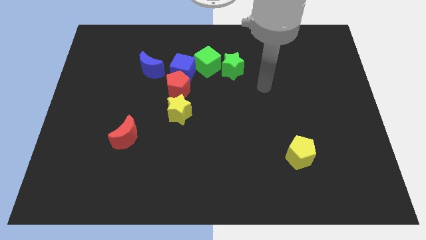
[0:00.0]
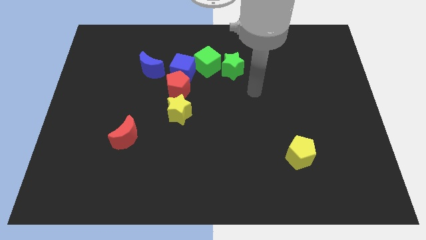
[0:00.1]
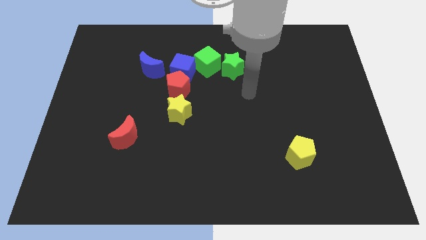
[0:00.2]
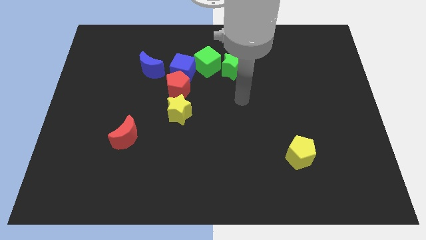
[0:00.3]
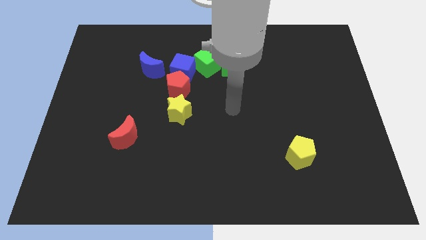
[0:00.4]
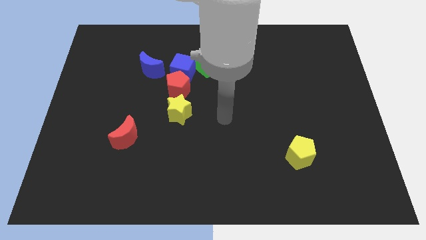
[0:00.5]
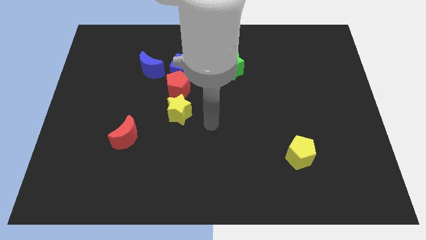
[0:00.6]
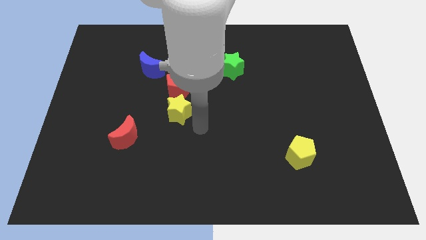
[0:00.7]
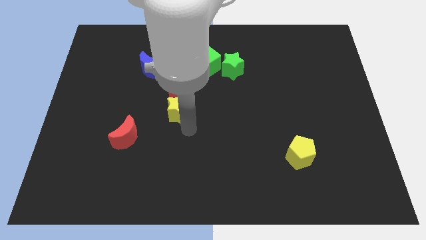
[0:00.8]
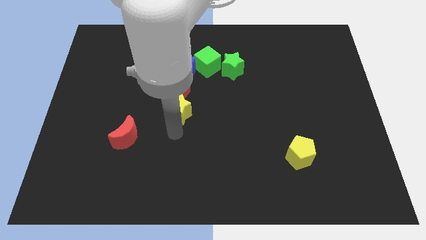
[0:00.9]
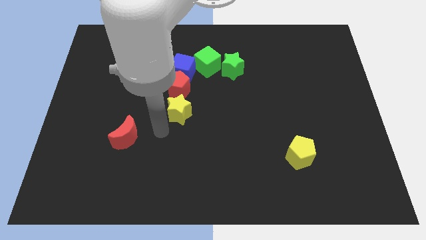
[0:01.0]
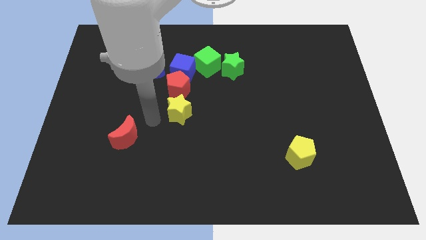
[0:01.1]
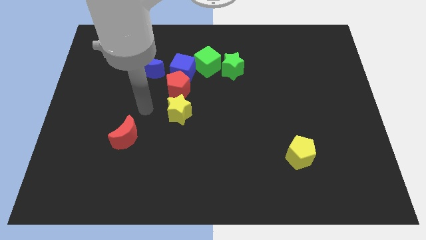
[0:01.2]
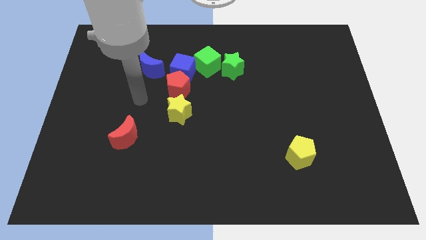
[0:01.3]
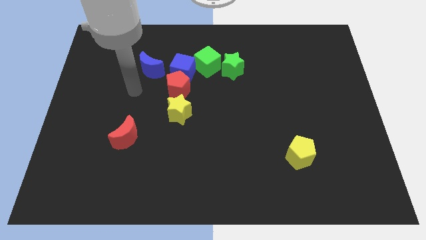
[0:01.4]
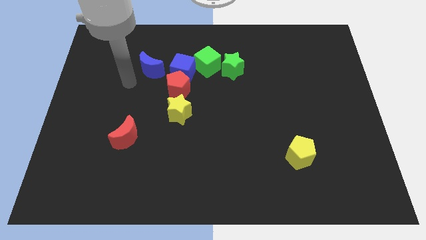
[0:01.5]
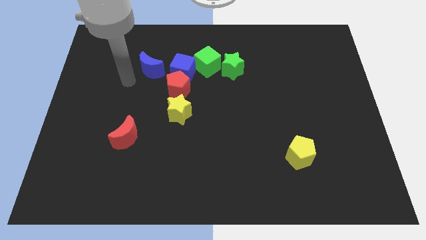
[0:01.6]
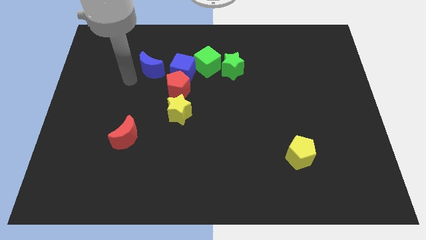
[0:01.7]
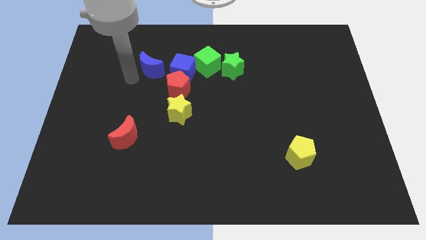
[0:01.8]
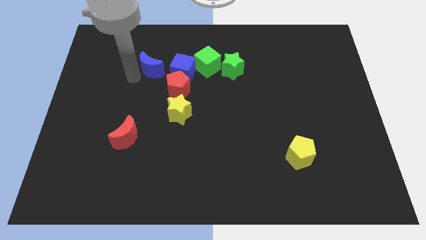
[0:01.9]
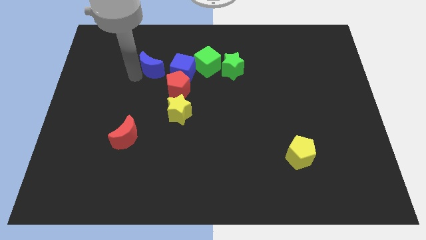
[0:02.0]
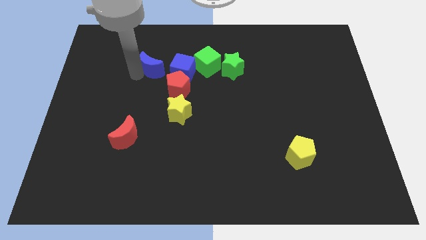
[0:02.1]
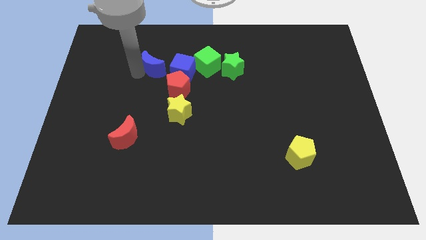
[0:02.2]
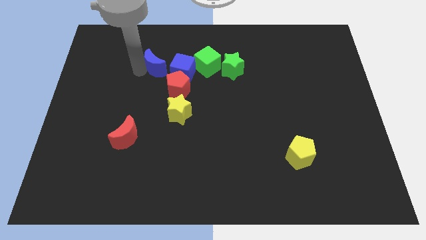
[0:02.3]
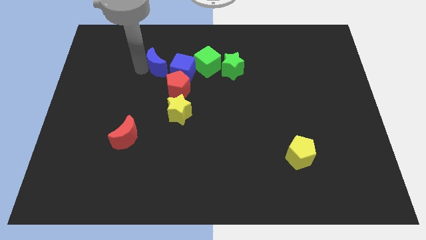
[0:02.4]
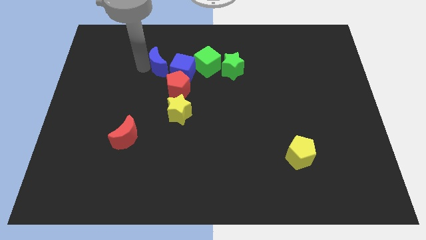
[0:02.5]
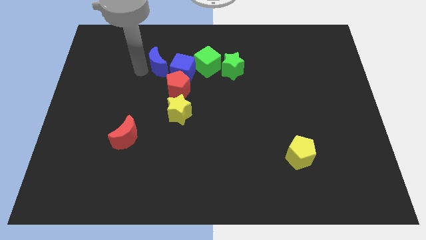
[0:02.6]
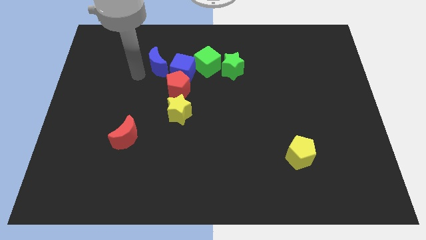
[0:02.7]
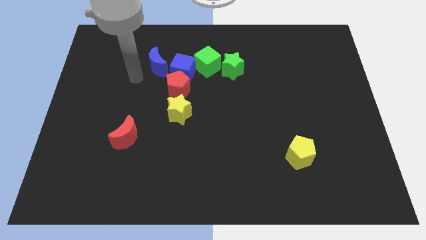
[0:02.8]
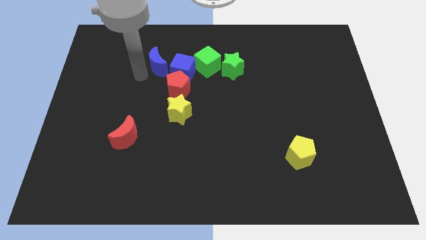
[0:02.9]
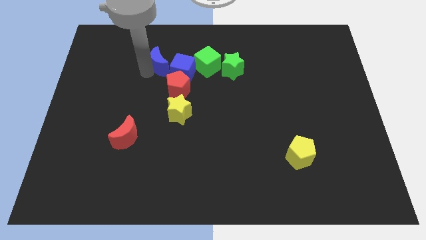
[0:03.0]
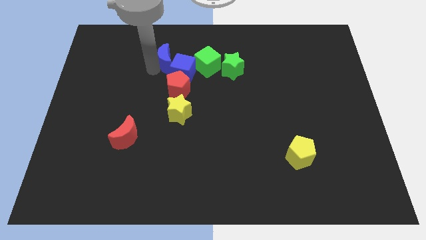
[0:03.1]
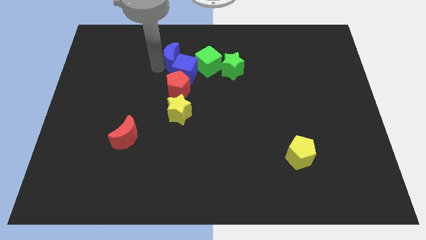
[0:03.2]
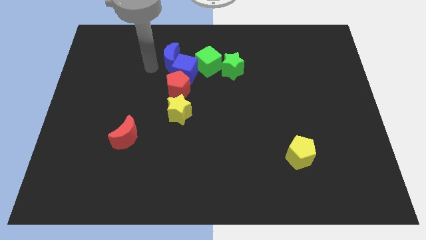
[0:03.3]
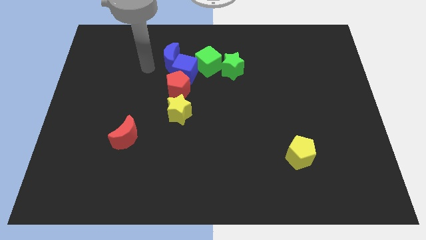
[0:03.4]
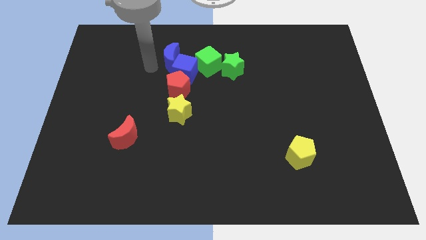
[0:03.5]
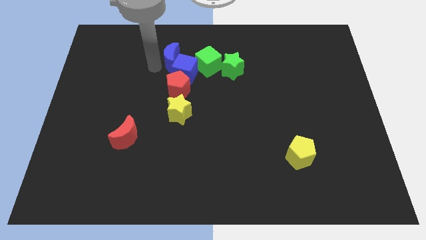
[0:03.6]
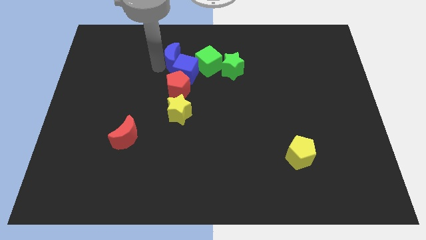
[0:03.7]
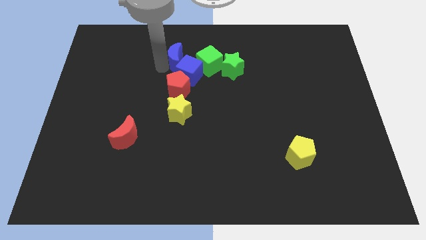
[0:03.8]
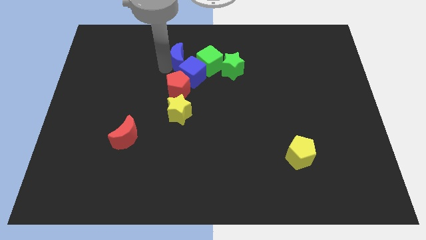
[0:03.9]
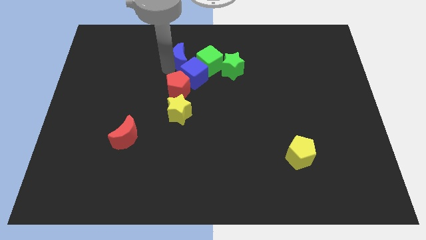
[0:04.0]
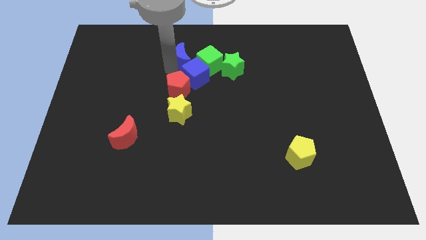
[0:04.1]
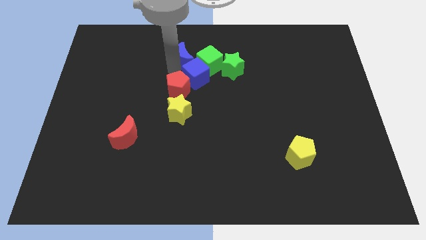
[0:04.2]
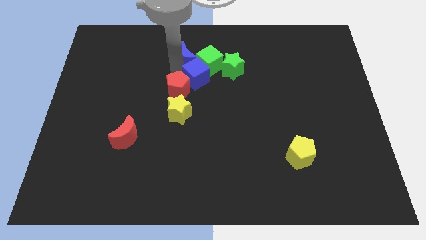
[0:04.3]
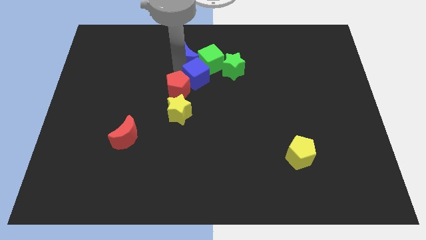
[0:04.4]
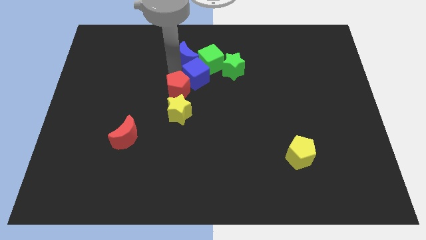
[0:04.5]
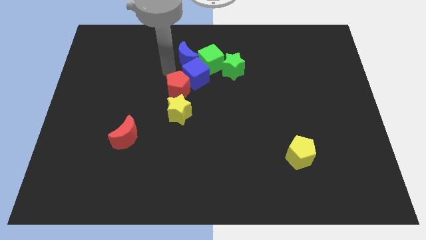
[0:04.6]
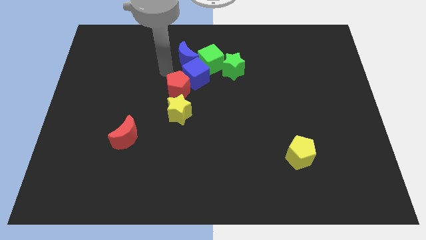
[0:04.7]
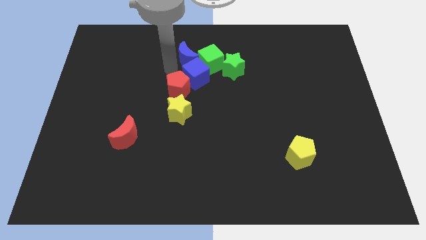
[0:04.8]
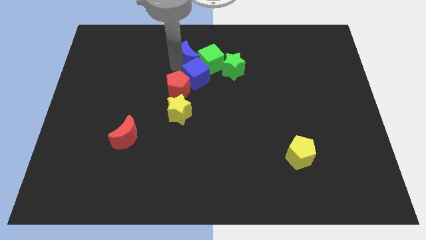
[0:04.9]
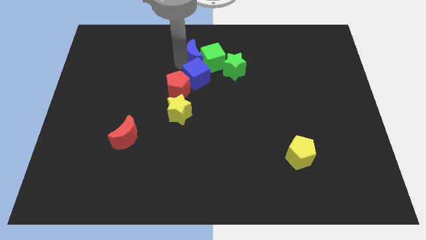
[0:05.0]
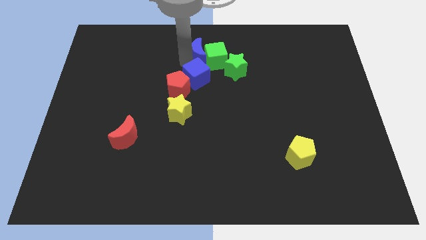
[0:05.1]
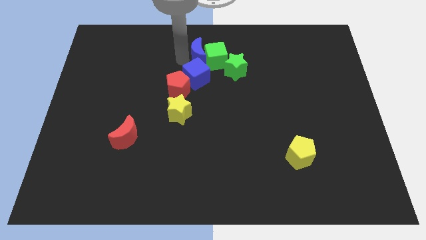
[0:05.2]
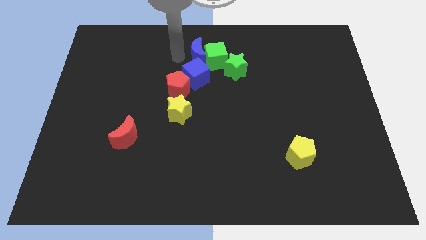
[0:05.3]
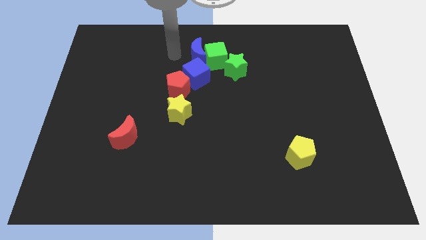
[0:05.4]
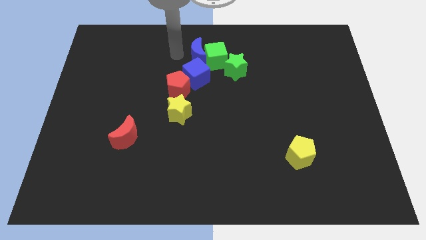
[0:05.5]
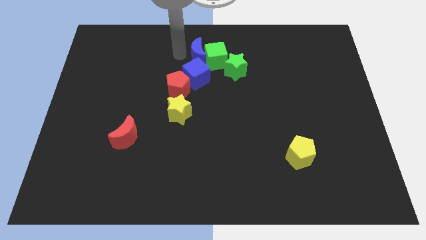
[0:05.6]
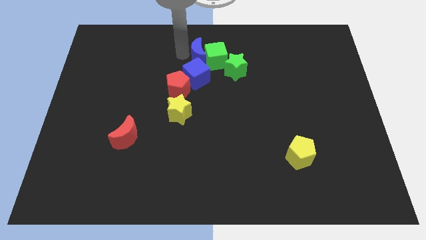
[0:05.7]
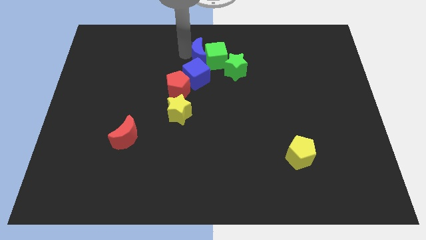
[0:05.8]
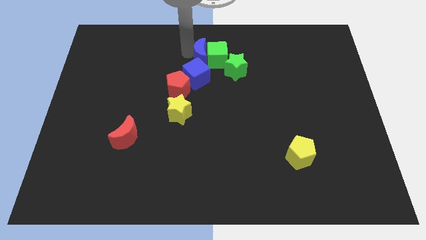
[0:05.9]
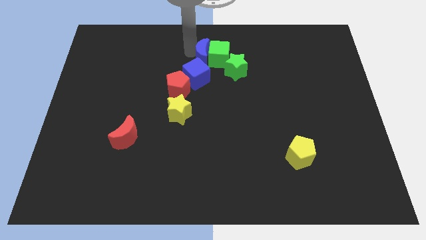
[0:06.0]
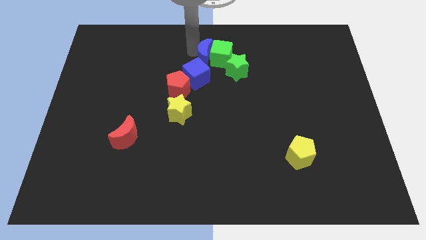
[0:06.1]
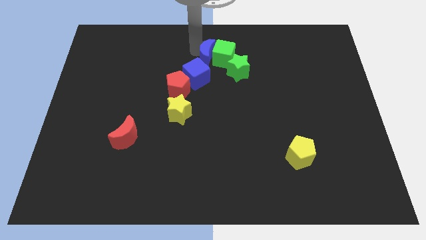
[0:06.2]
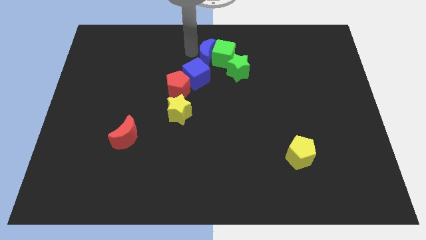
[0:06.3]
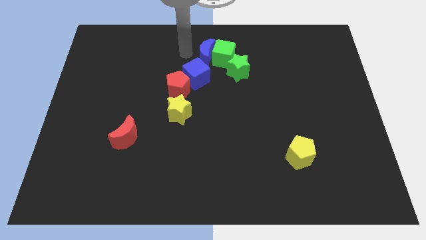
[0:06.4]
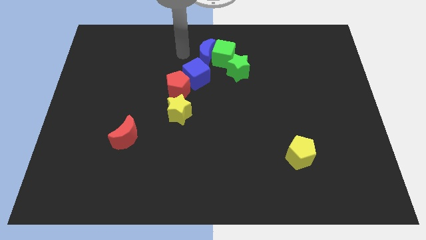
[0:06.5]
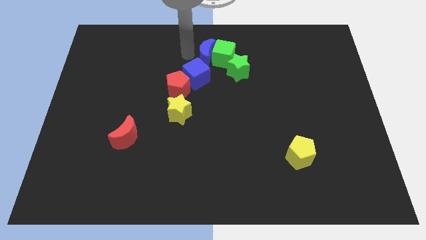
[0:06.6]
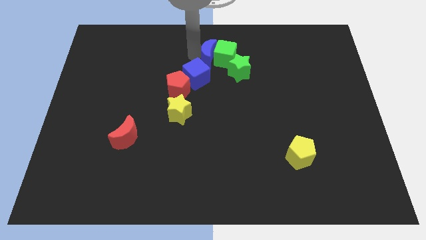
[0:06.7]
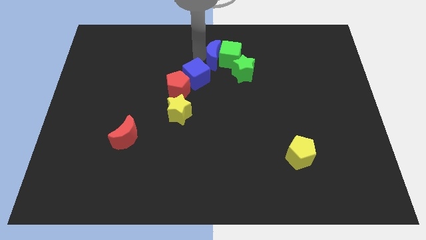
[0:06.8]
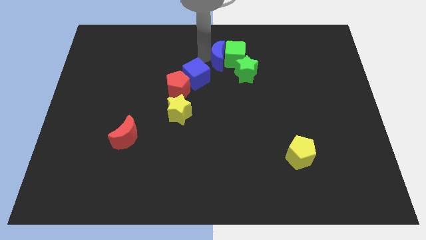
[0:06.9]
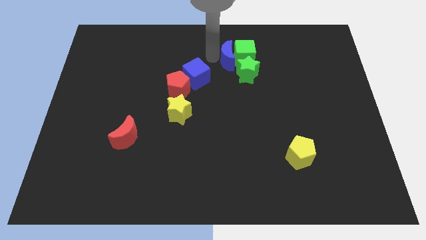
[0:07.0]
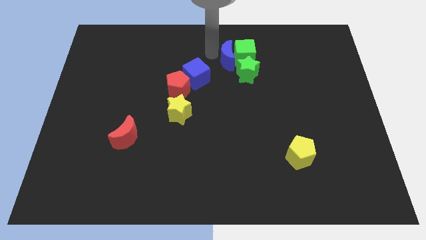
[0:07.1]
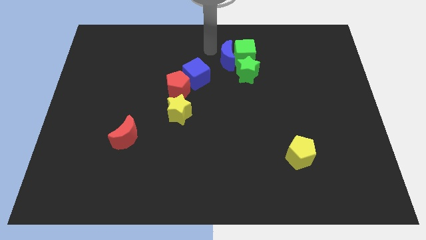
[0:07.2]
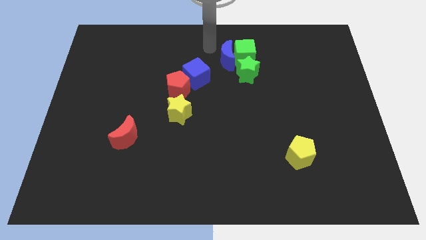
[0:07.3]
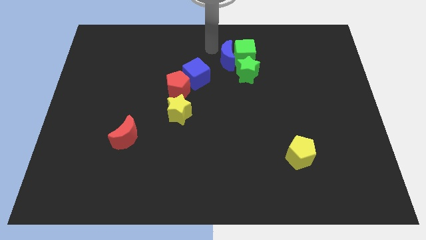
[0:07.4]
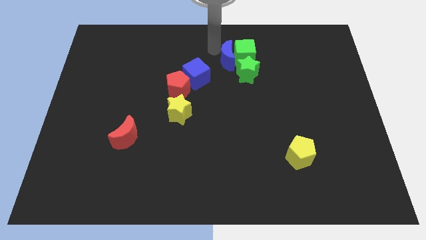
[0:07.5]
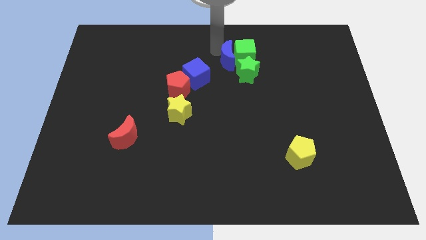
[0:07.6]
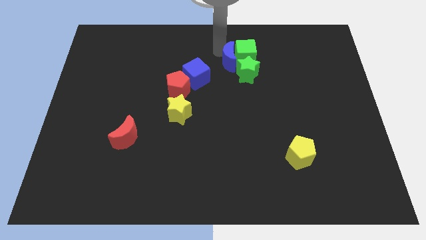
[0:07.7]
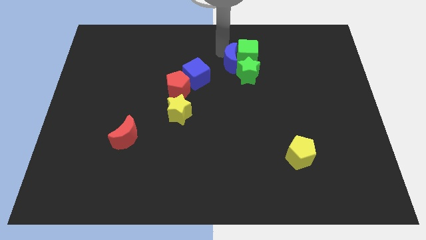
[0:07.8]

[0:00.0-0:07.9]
slide the blue moon to the green star
